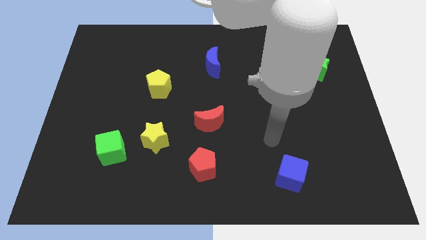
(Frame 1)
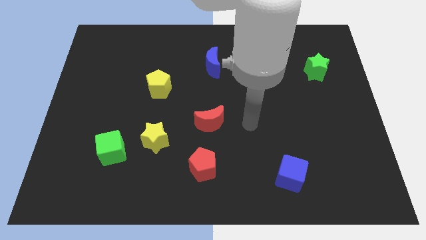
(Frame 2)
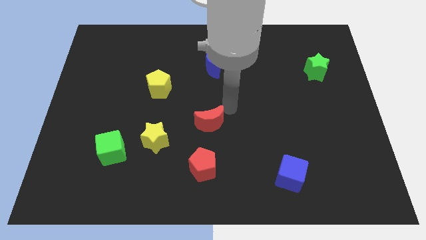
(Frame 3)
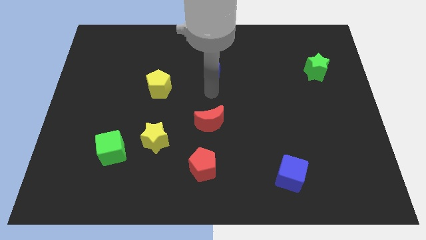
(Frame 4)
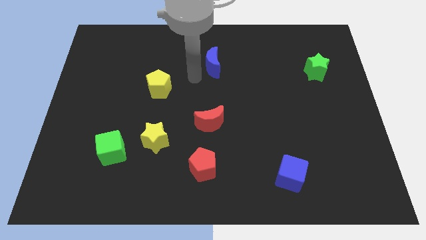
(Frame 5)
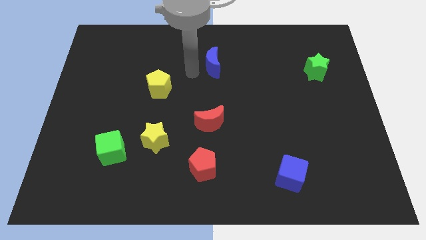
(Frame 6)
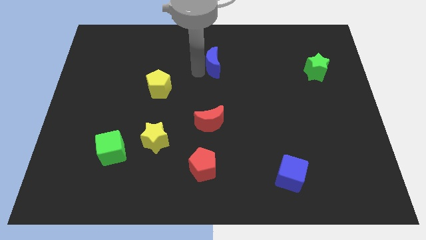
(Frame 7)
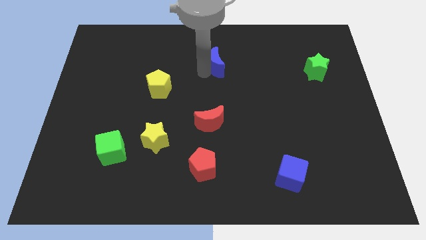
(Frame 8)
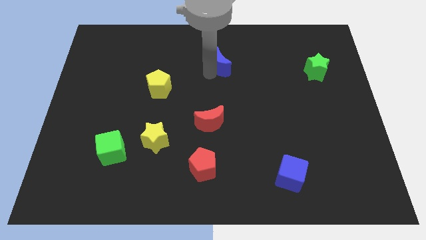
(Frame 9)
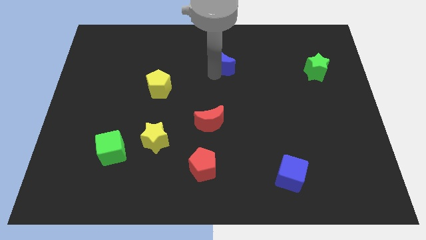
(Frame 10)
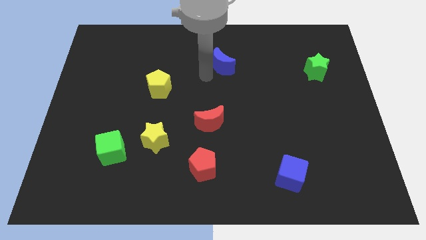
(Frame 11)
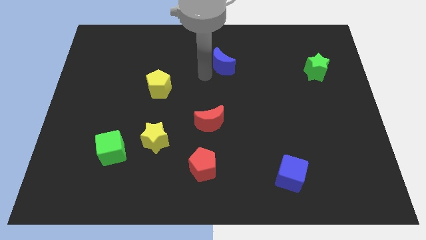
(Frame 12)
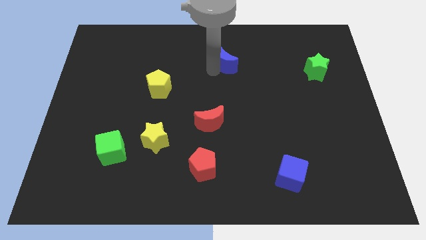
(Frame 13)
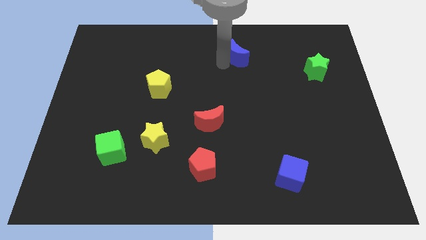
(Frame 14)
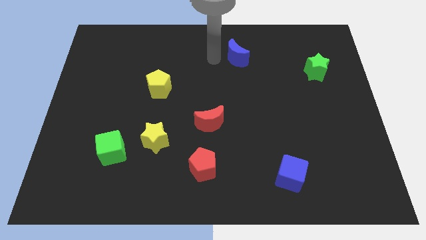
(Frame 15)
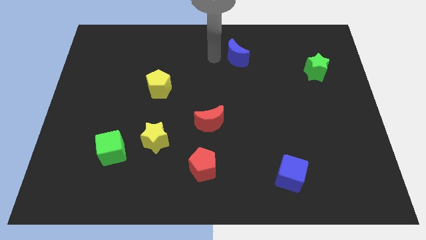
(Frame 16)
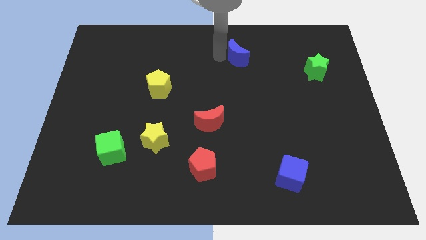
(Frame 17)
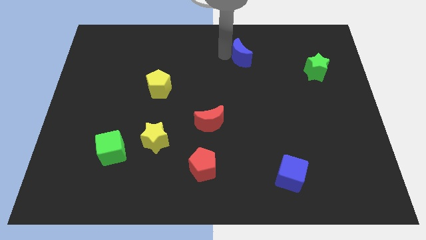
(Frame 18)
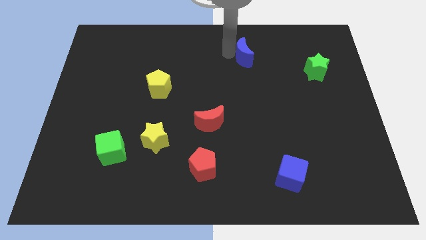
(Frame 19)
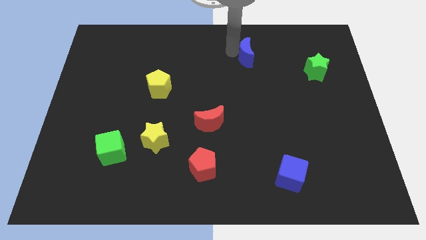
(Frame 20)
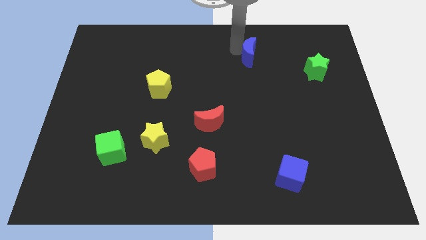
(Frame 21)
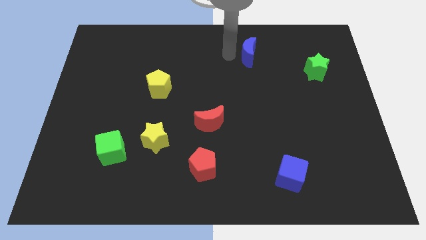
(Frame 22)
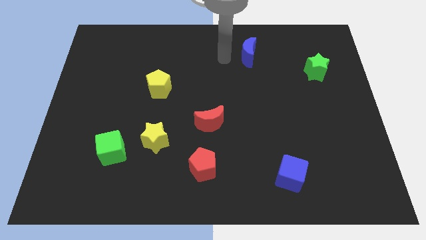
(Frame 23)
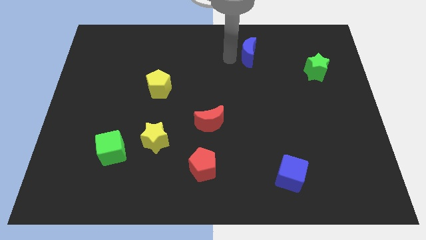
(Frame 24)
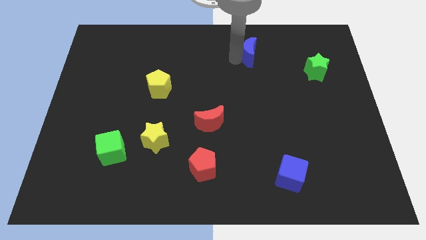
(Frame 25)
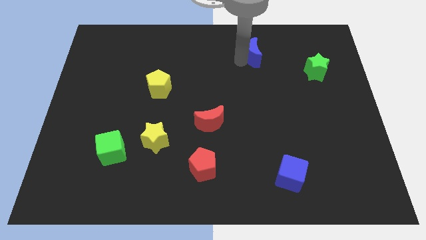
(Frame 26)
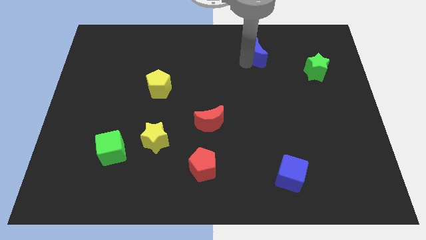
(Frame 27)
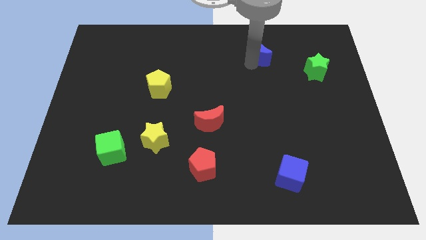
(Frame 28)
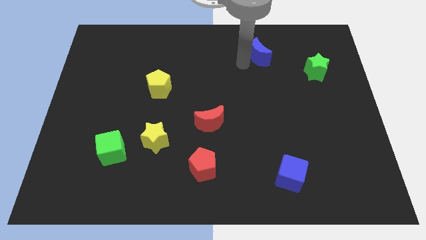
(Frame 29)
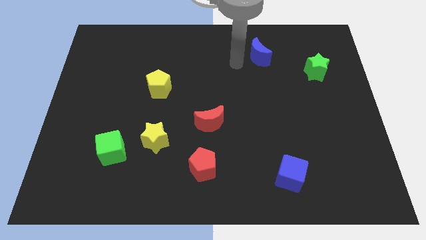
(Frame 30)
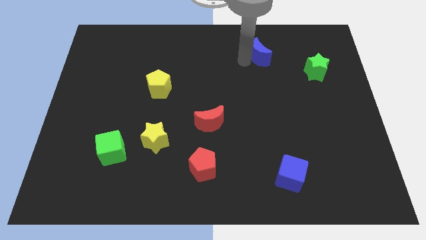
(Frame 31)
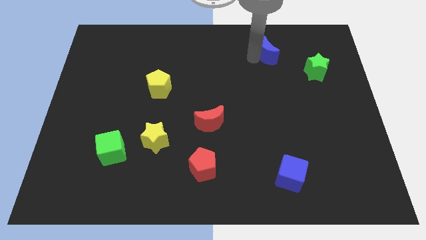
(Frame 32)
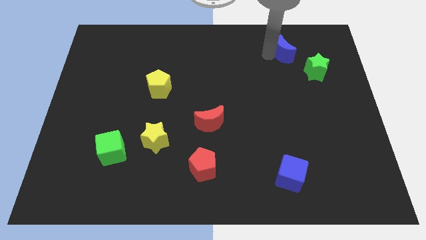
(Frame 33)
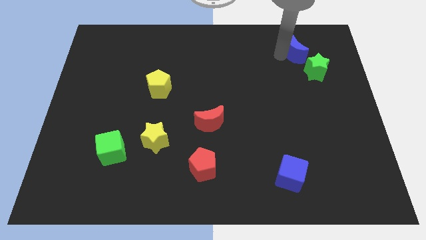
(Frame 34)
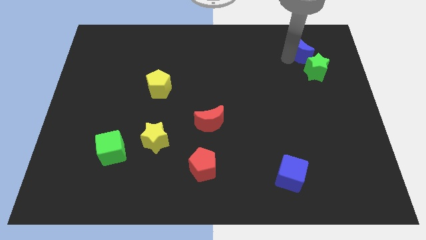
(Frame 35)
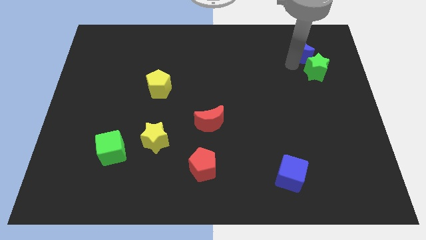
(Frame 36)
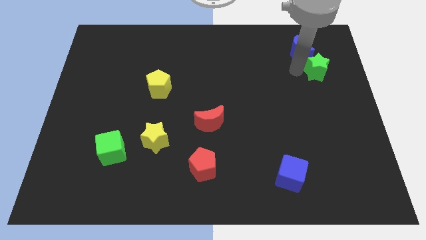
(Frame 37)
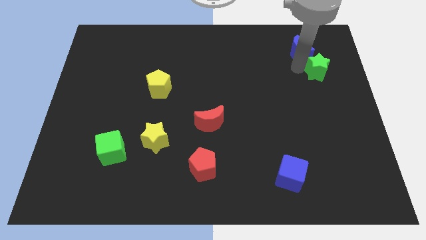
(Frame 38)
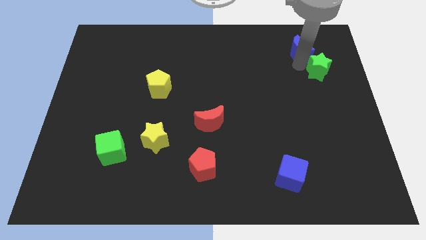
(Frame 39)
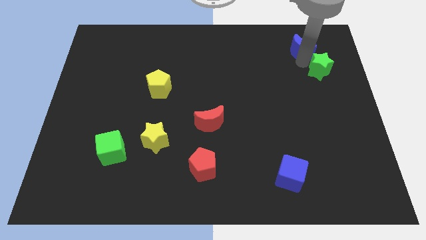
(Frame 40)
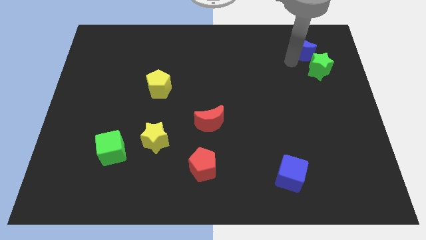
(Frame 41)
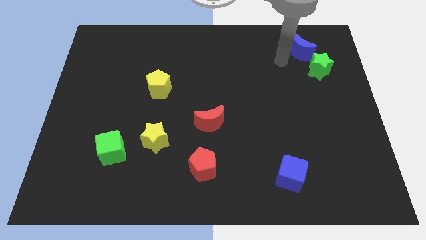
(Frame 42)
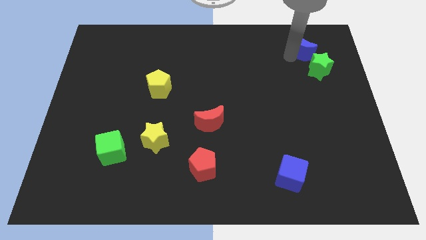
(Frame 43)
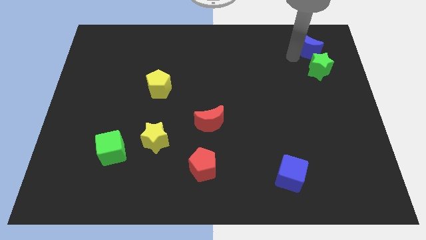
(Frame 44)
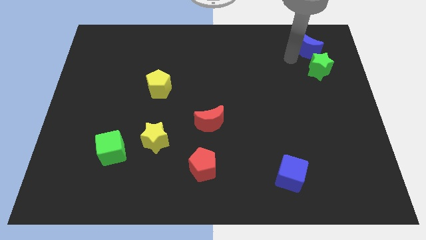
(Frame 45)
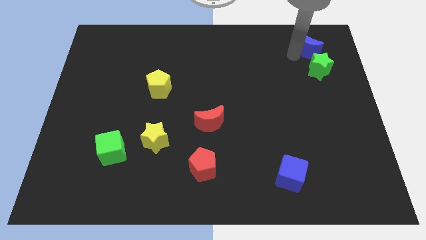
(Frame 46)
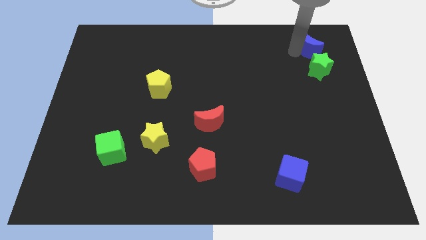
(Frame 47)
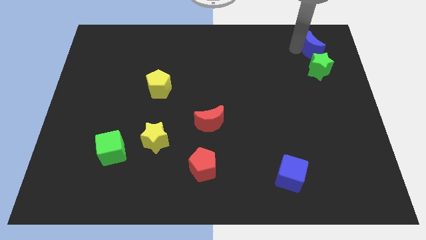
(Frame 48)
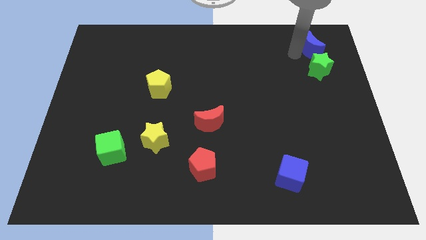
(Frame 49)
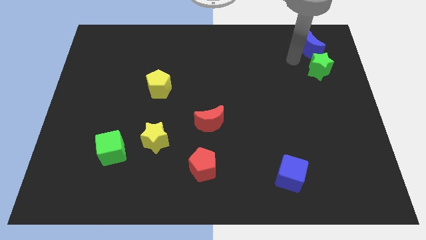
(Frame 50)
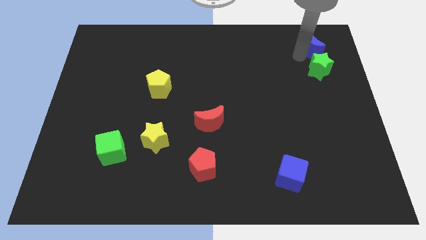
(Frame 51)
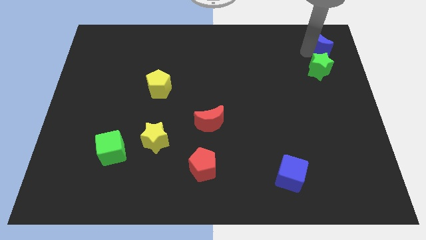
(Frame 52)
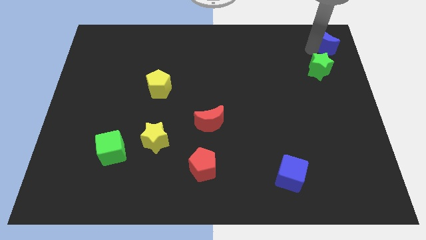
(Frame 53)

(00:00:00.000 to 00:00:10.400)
put the blue moon to the top right of the board

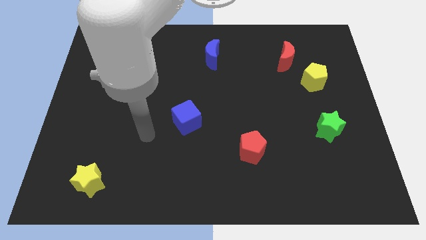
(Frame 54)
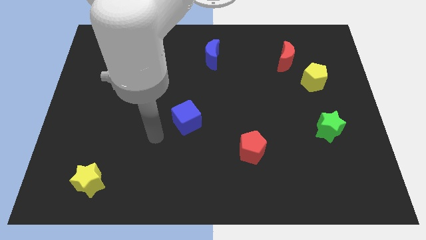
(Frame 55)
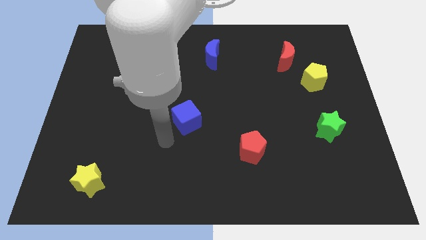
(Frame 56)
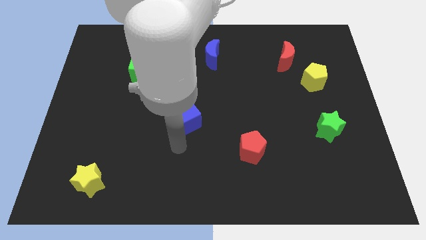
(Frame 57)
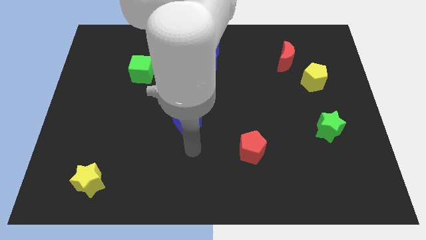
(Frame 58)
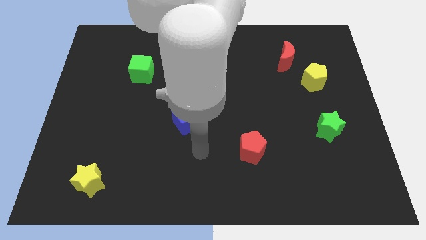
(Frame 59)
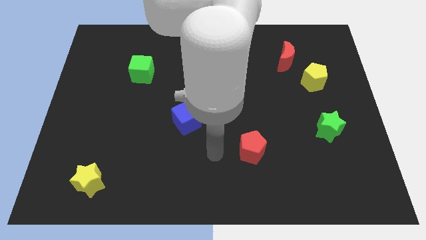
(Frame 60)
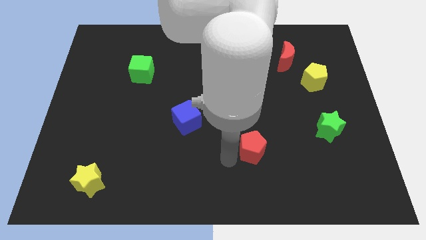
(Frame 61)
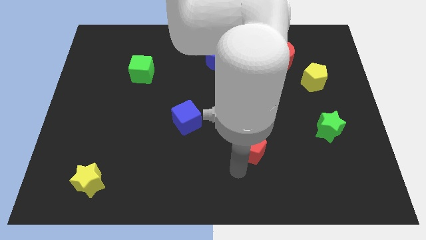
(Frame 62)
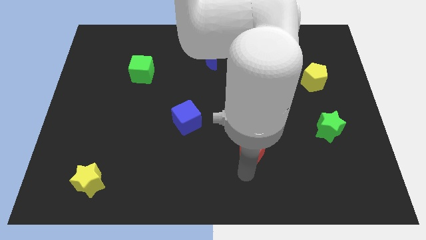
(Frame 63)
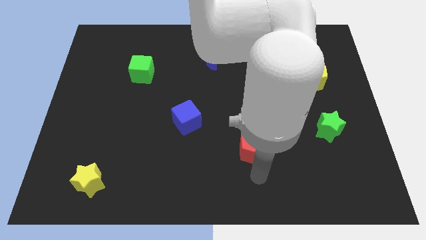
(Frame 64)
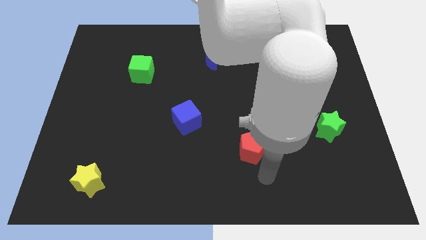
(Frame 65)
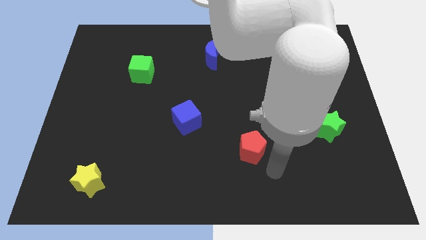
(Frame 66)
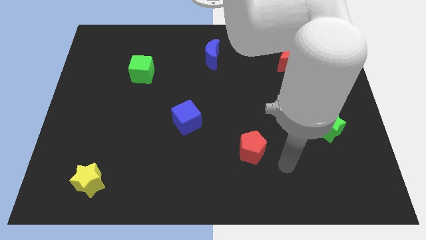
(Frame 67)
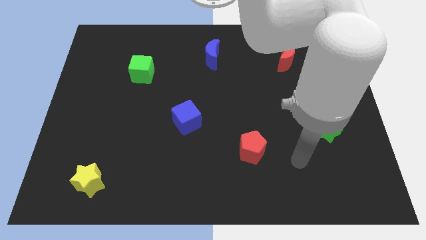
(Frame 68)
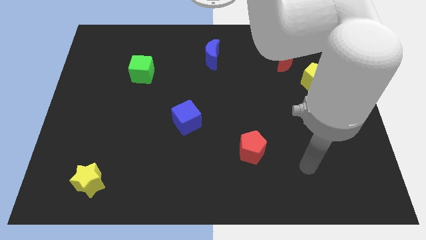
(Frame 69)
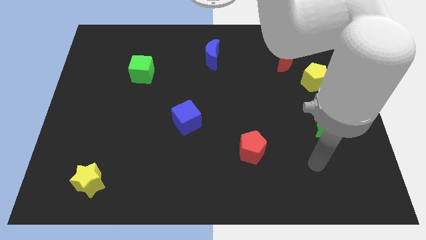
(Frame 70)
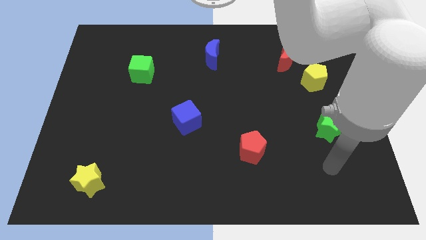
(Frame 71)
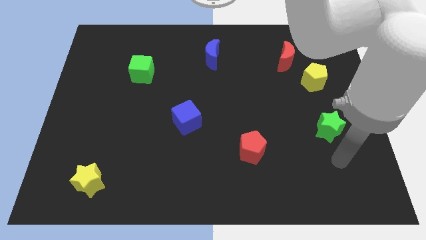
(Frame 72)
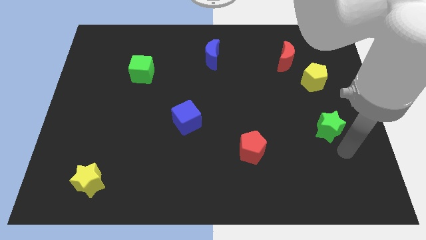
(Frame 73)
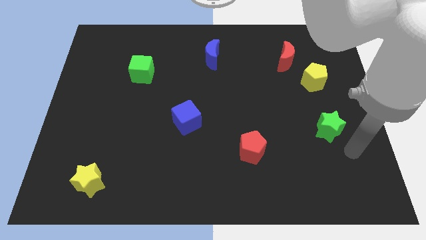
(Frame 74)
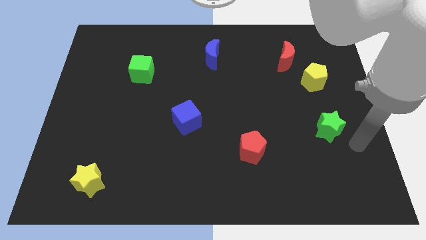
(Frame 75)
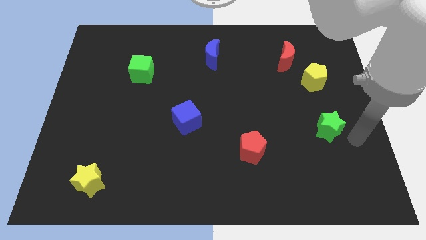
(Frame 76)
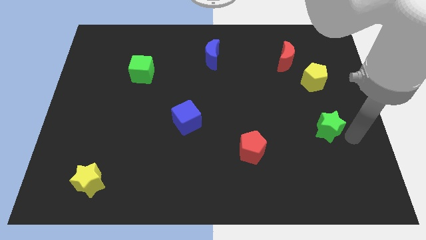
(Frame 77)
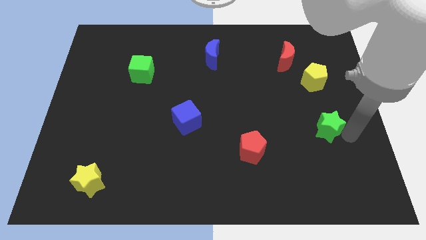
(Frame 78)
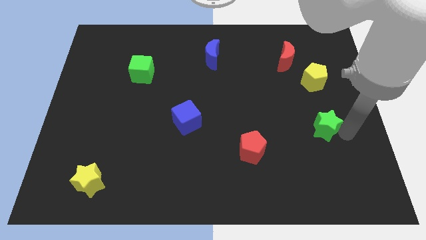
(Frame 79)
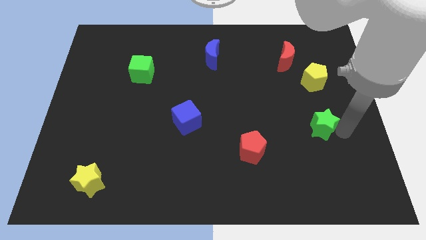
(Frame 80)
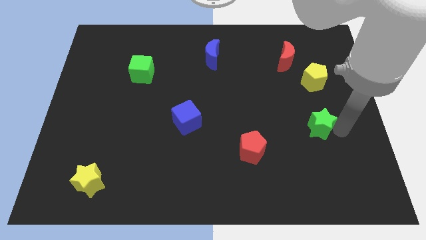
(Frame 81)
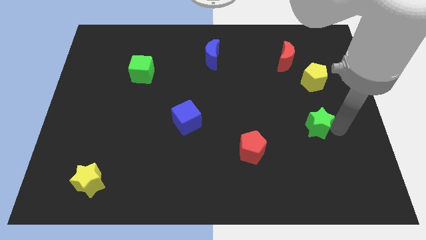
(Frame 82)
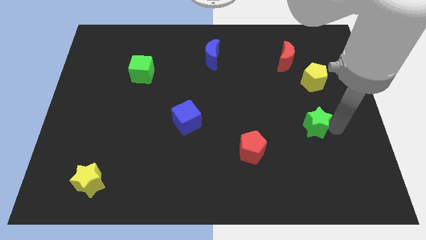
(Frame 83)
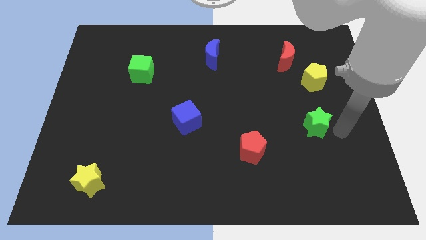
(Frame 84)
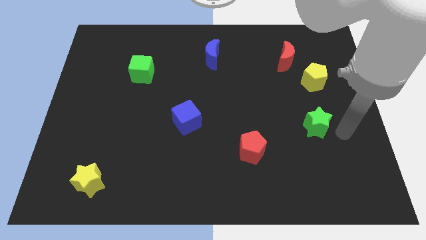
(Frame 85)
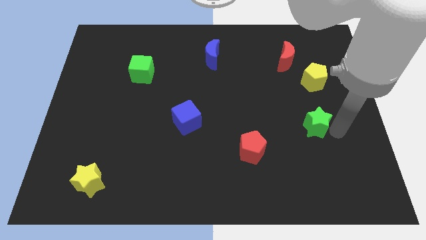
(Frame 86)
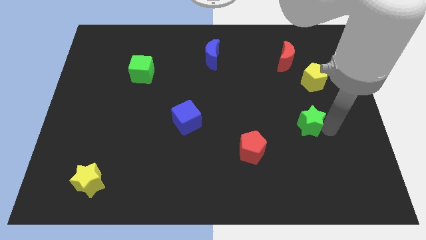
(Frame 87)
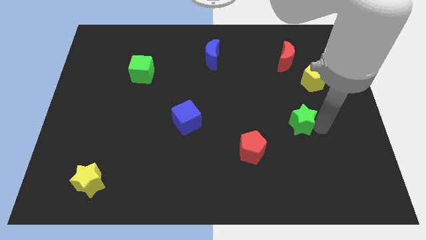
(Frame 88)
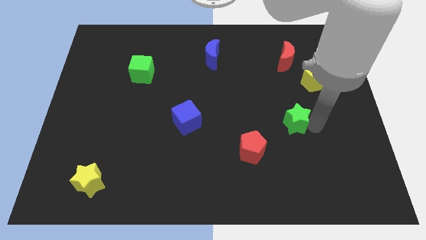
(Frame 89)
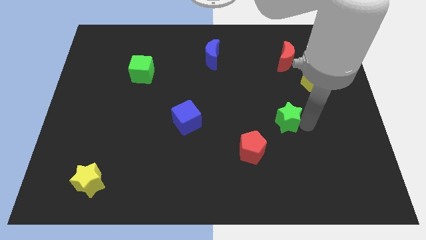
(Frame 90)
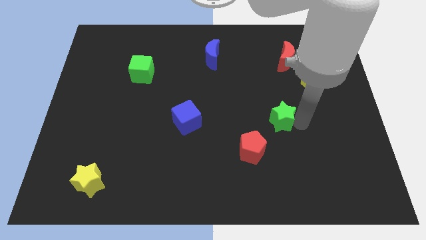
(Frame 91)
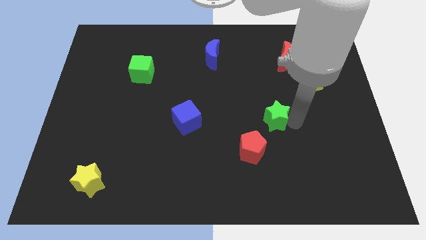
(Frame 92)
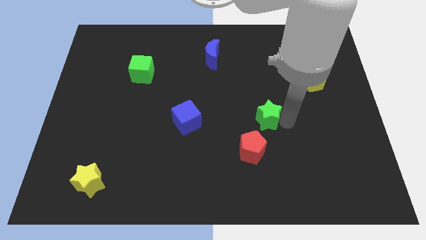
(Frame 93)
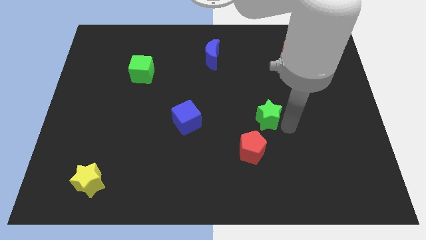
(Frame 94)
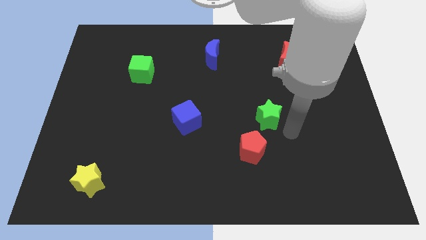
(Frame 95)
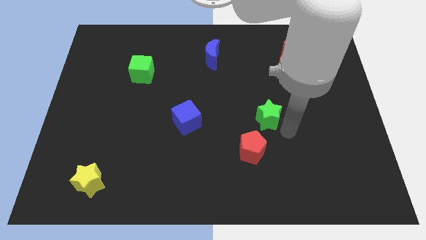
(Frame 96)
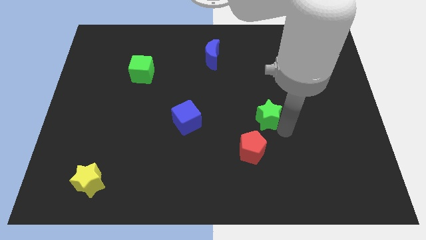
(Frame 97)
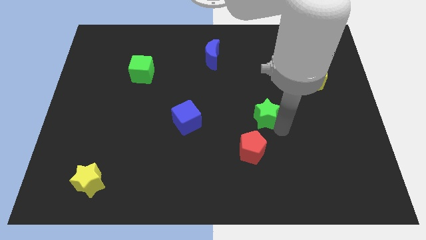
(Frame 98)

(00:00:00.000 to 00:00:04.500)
move the green star to the middle
